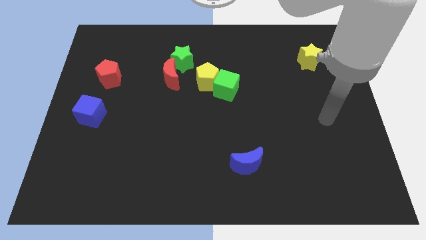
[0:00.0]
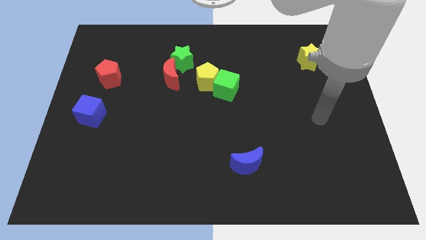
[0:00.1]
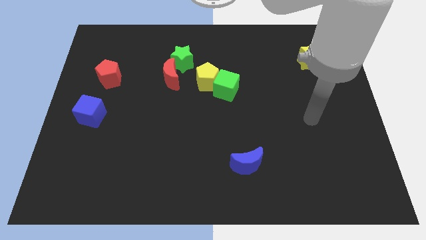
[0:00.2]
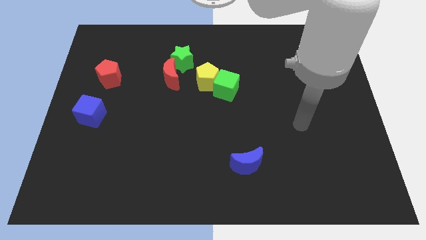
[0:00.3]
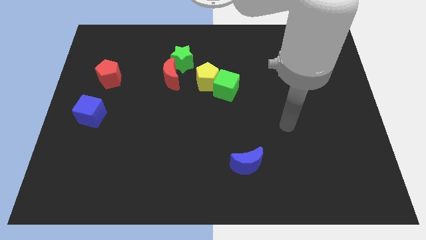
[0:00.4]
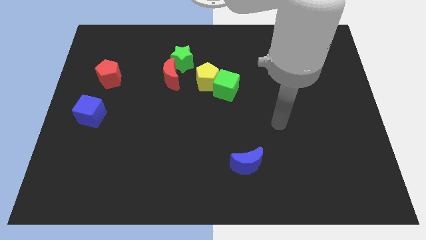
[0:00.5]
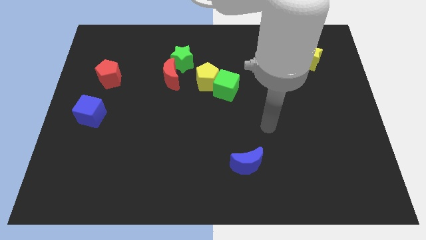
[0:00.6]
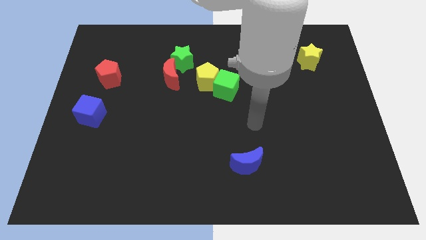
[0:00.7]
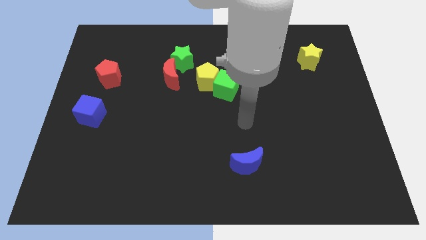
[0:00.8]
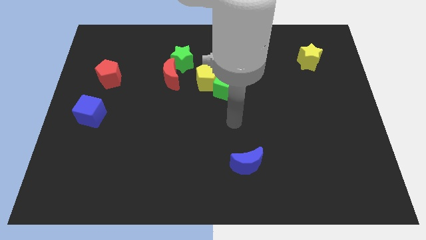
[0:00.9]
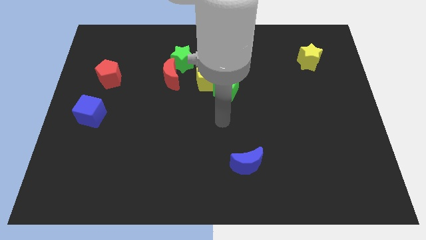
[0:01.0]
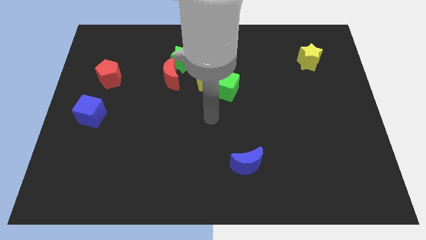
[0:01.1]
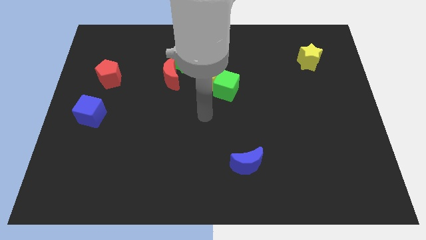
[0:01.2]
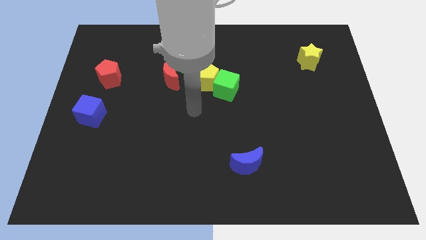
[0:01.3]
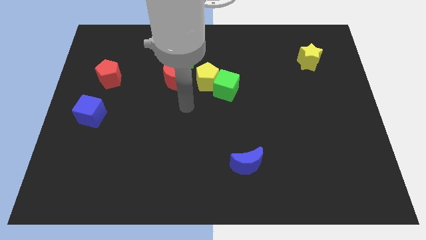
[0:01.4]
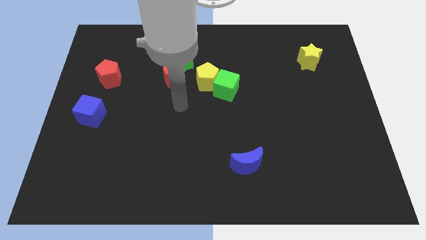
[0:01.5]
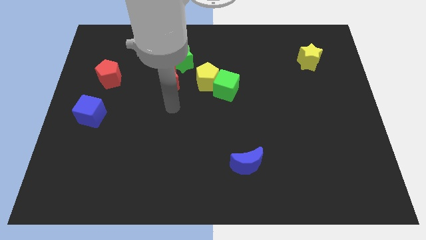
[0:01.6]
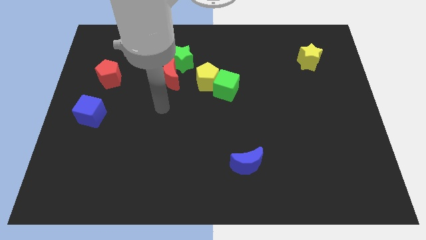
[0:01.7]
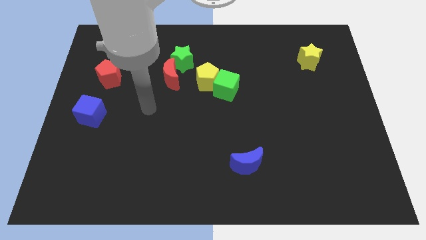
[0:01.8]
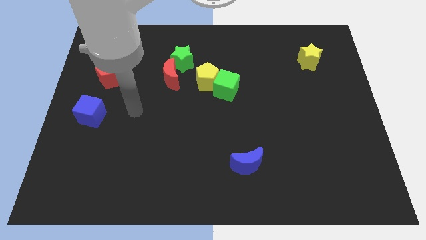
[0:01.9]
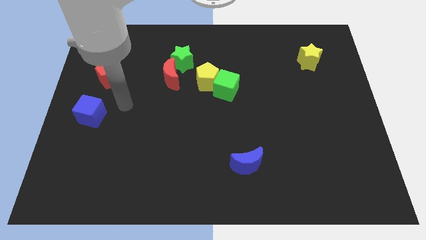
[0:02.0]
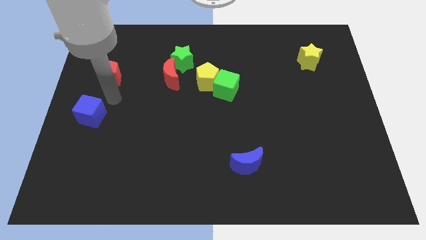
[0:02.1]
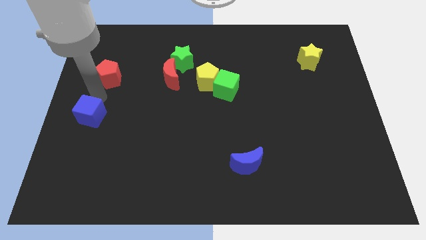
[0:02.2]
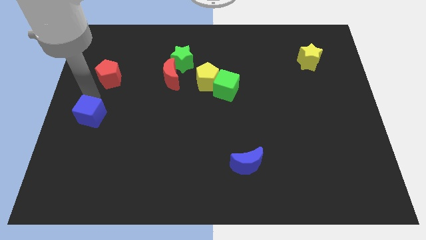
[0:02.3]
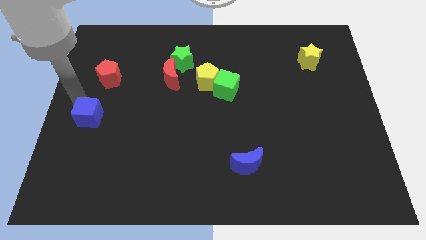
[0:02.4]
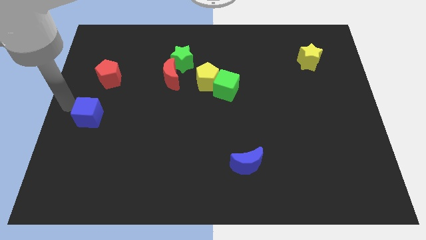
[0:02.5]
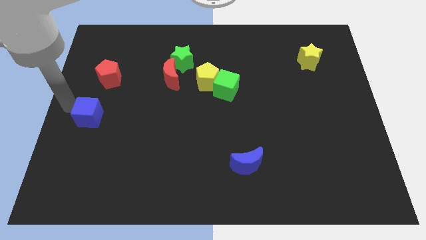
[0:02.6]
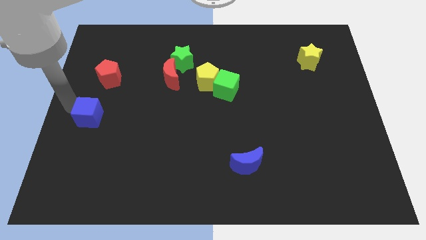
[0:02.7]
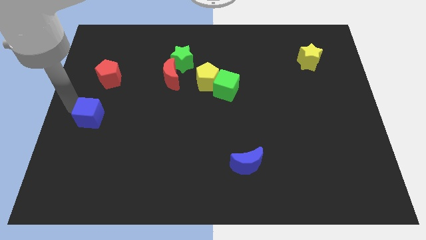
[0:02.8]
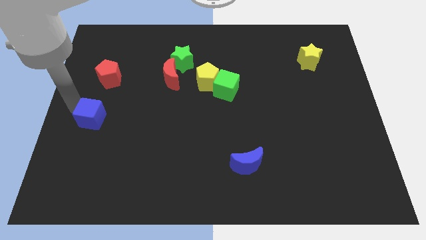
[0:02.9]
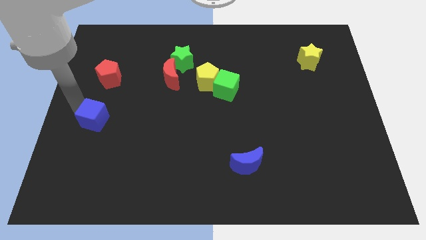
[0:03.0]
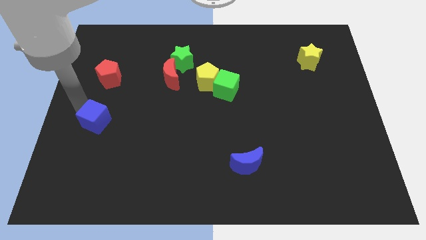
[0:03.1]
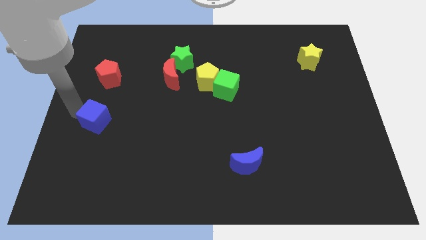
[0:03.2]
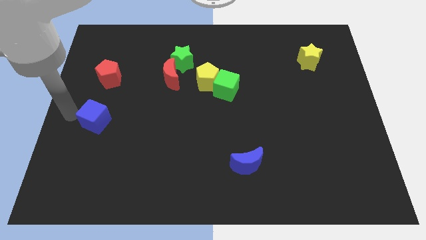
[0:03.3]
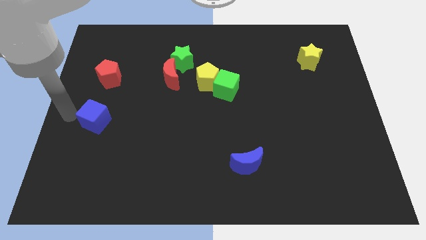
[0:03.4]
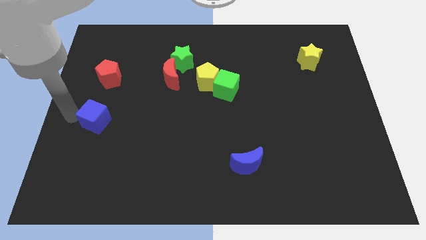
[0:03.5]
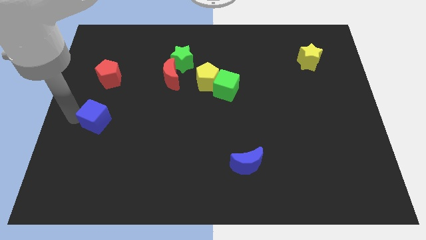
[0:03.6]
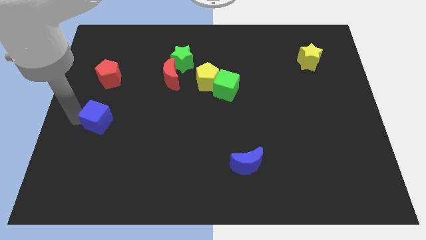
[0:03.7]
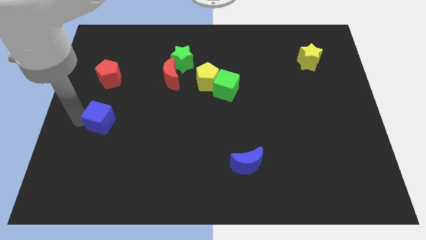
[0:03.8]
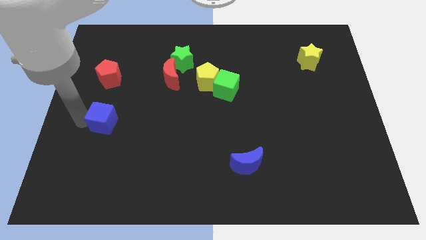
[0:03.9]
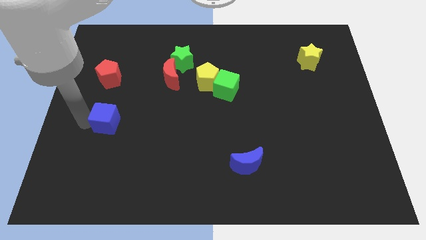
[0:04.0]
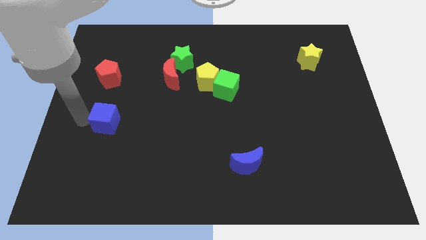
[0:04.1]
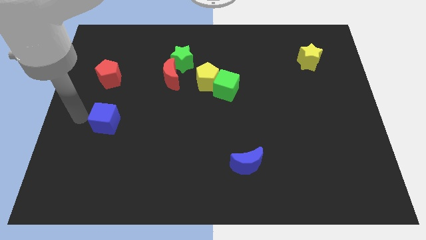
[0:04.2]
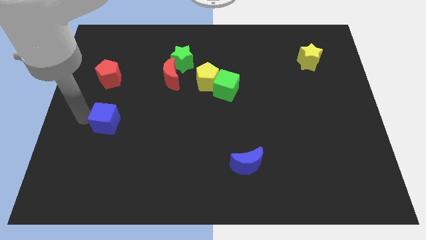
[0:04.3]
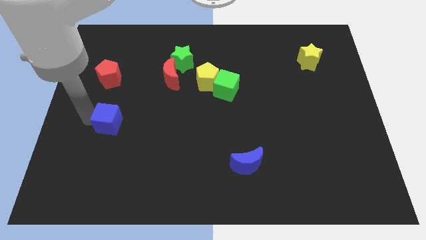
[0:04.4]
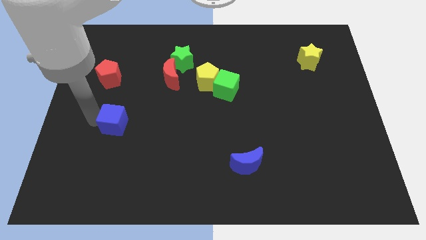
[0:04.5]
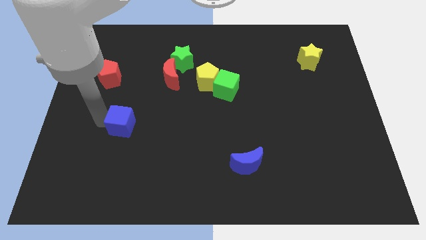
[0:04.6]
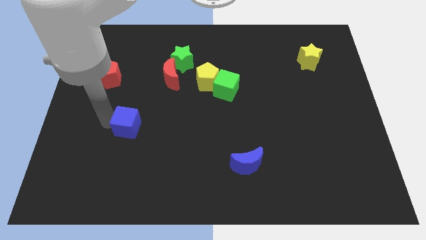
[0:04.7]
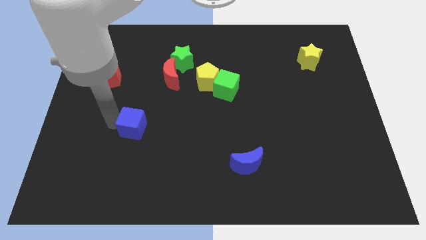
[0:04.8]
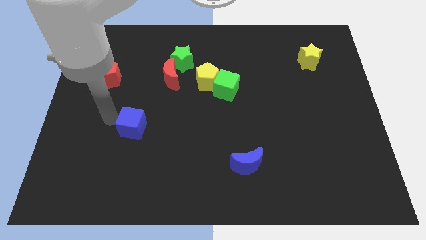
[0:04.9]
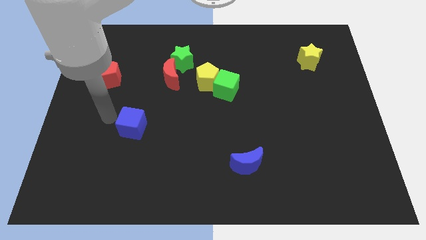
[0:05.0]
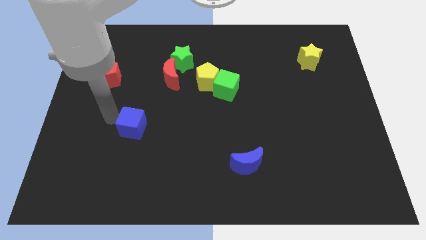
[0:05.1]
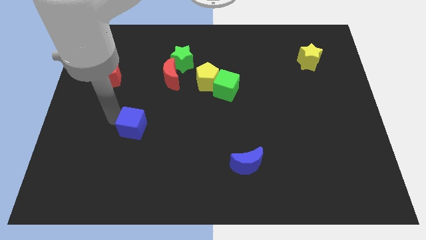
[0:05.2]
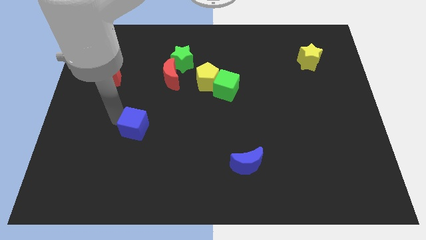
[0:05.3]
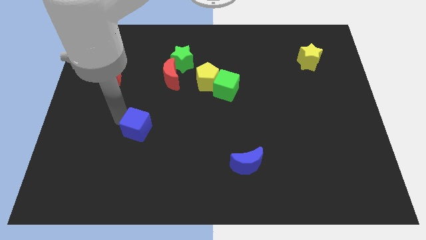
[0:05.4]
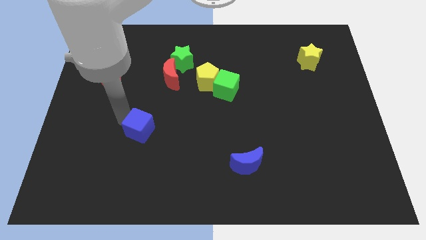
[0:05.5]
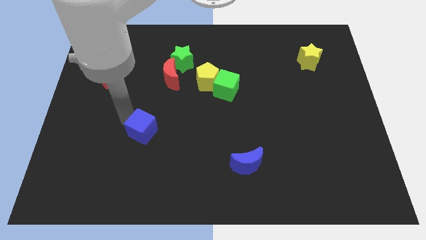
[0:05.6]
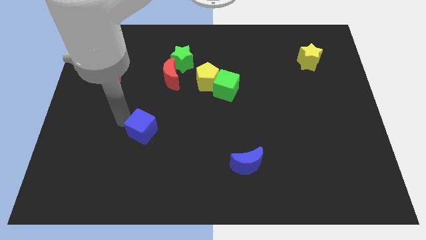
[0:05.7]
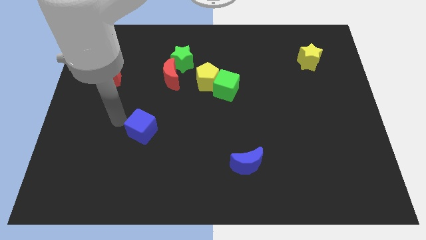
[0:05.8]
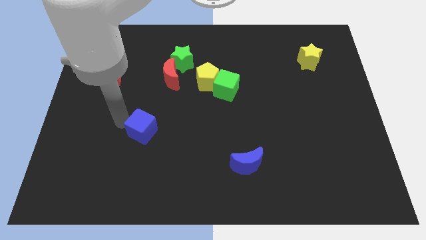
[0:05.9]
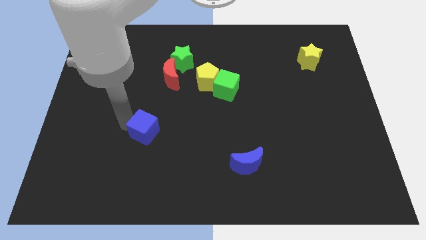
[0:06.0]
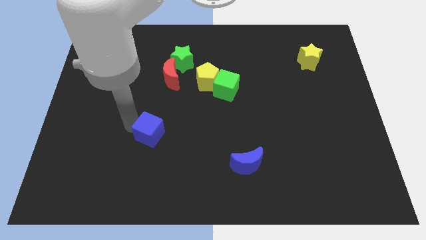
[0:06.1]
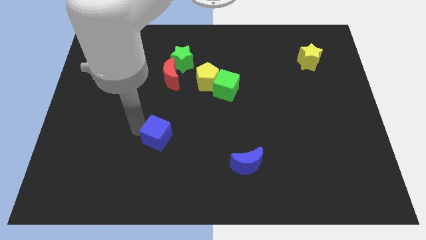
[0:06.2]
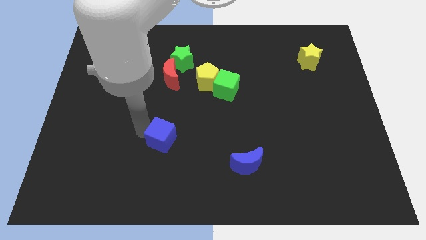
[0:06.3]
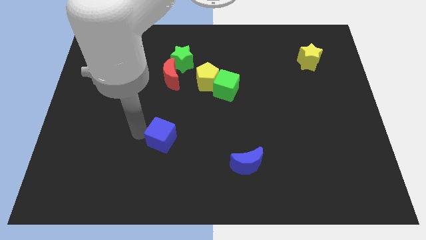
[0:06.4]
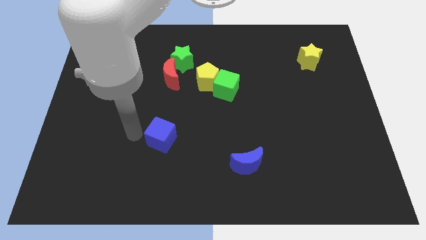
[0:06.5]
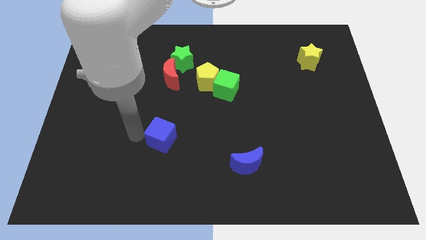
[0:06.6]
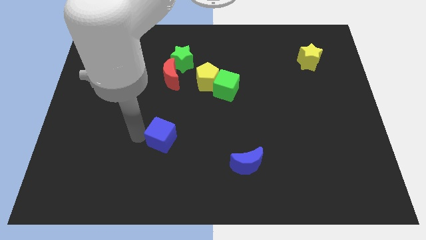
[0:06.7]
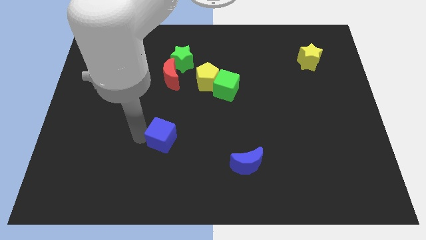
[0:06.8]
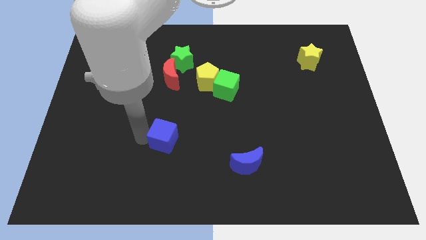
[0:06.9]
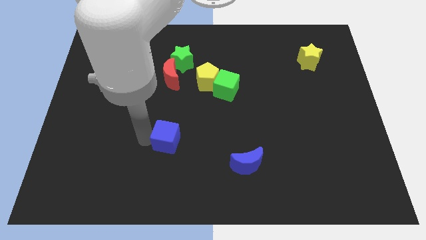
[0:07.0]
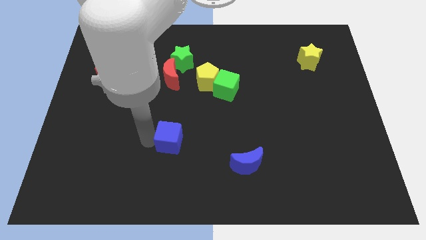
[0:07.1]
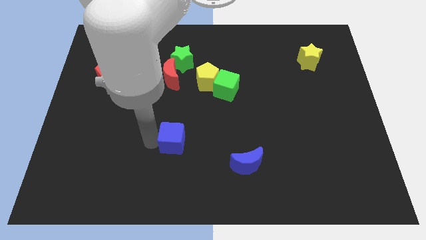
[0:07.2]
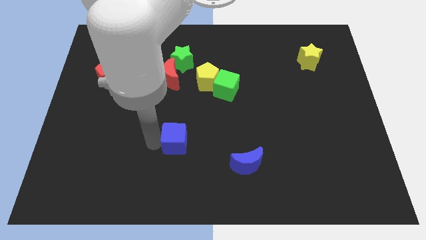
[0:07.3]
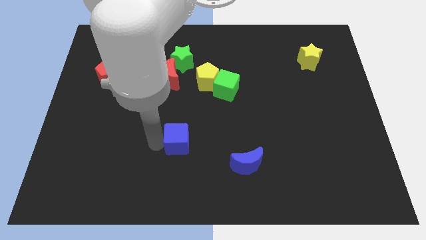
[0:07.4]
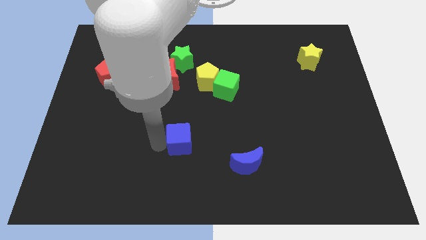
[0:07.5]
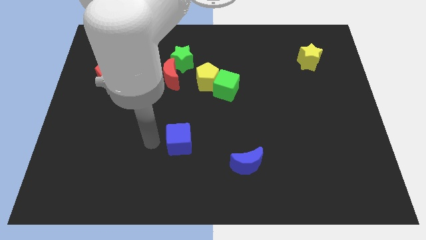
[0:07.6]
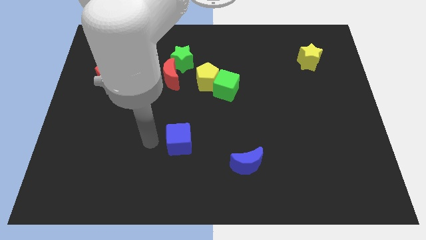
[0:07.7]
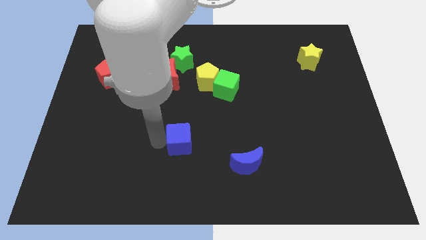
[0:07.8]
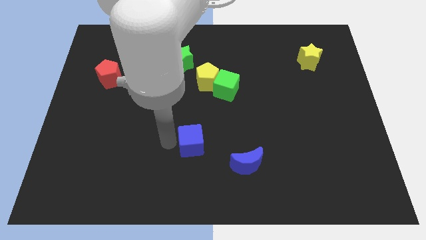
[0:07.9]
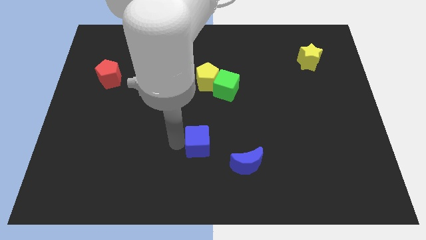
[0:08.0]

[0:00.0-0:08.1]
push the blue cube to the top left side of the blue moon
